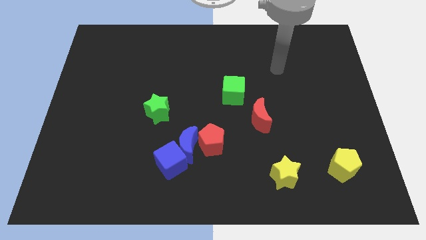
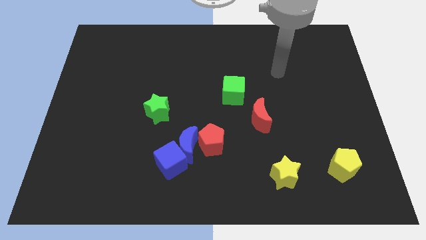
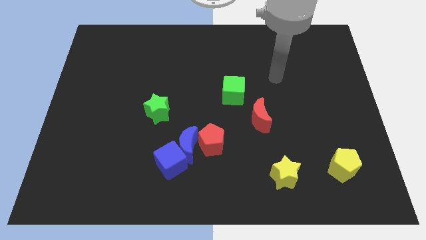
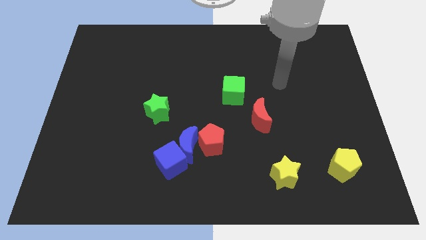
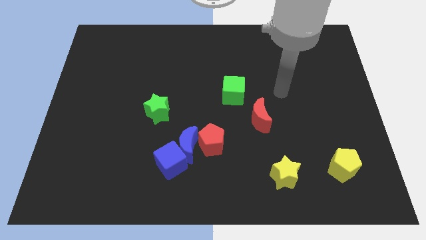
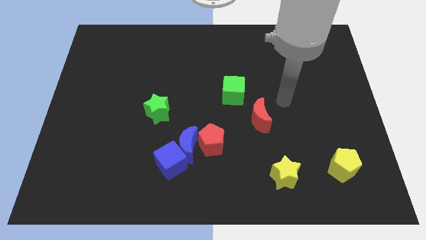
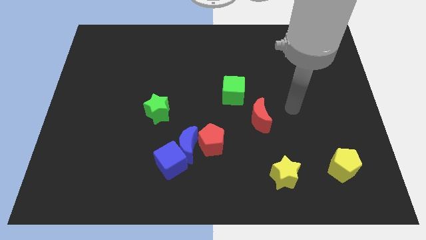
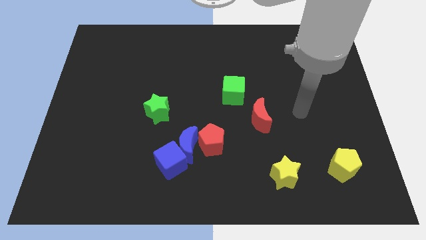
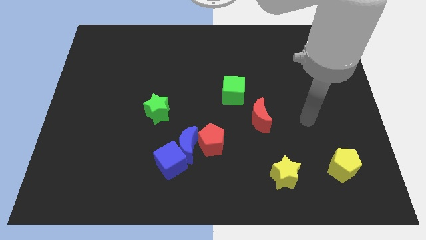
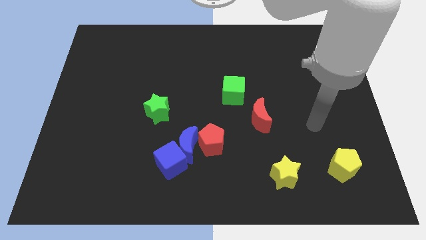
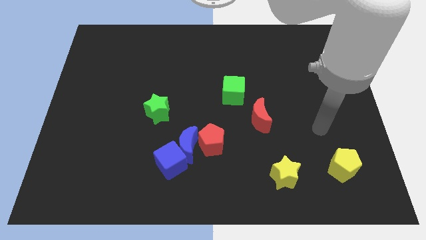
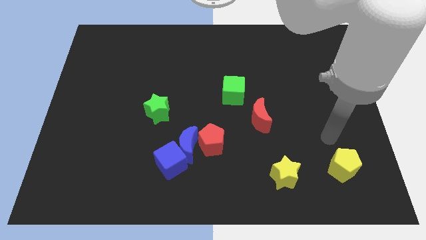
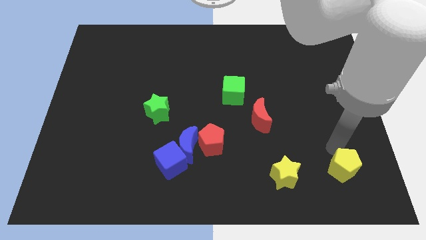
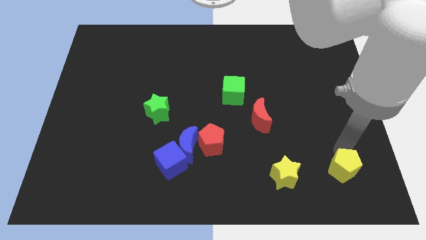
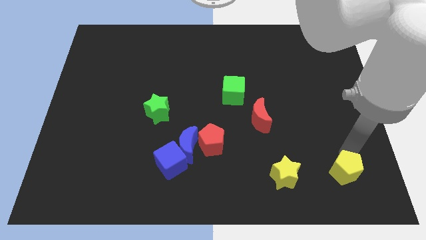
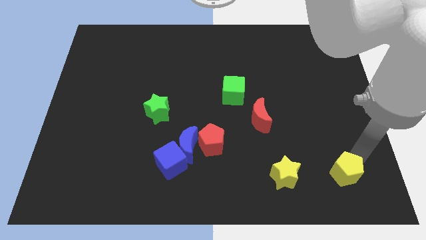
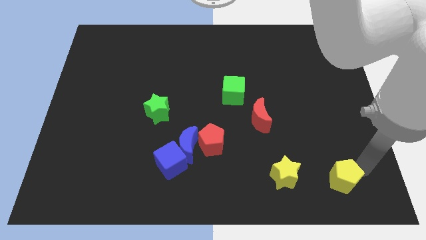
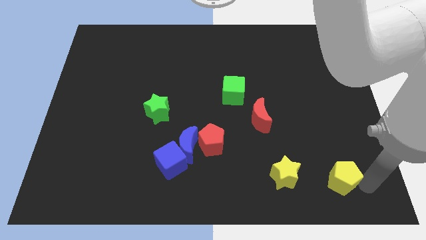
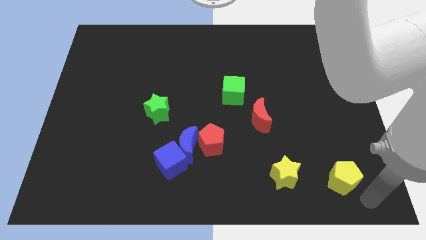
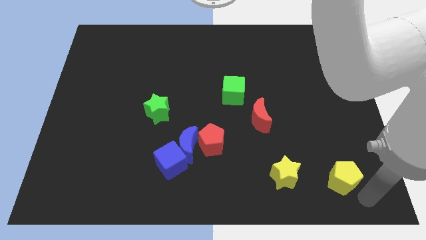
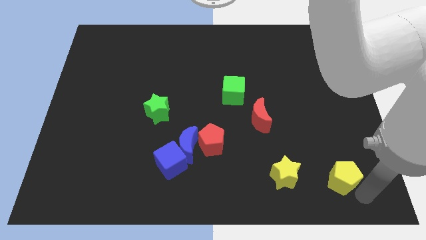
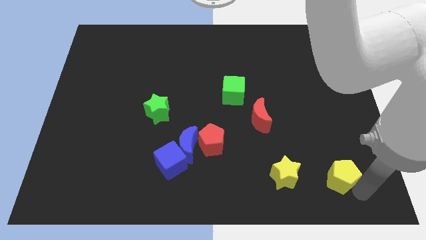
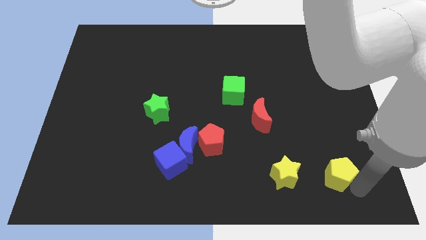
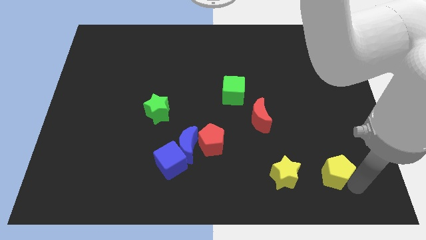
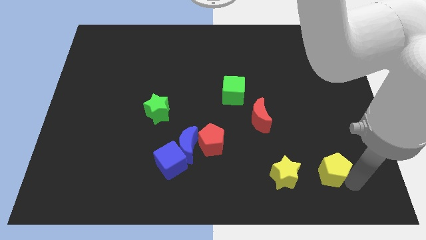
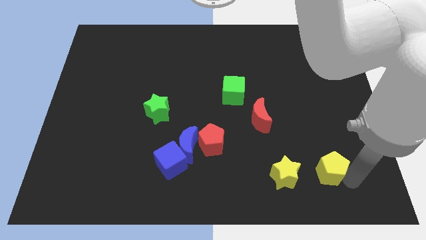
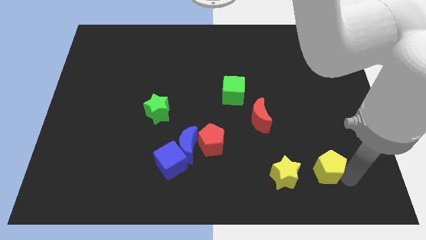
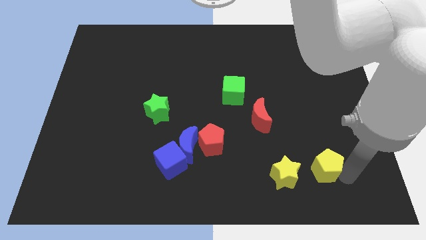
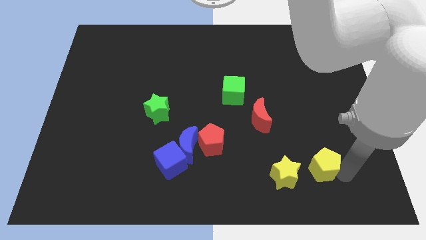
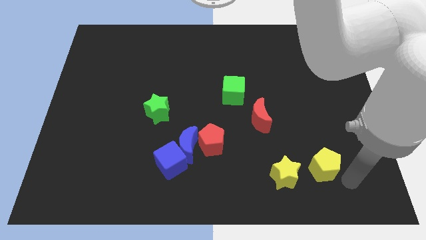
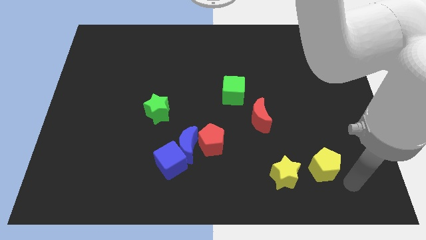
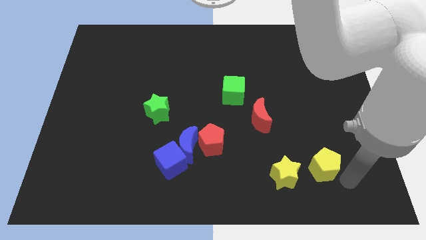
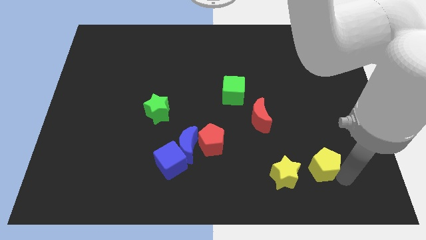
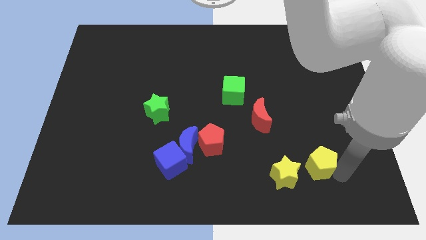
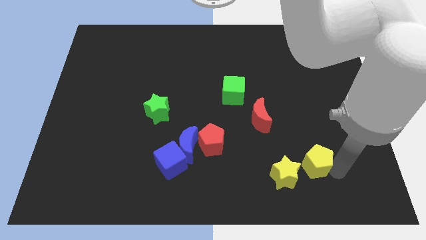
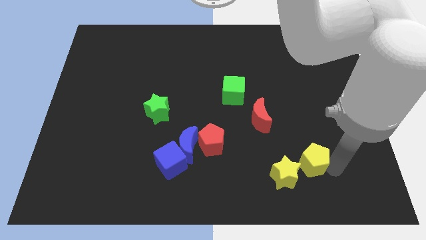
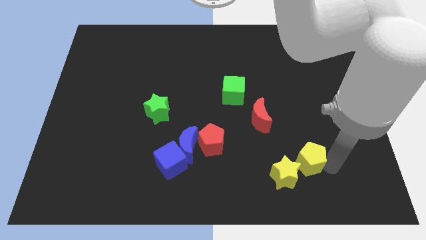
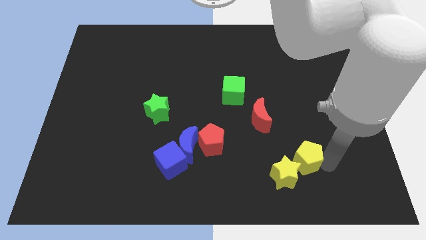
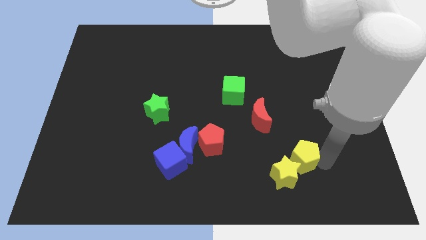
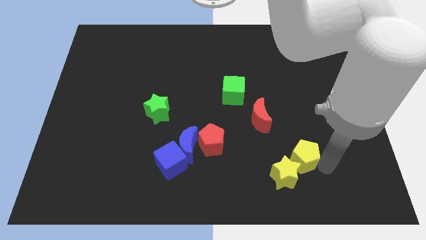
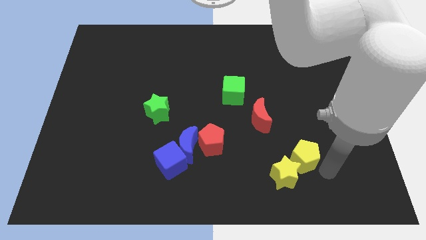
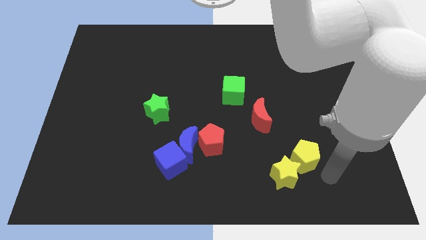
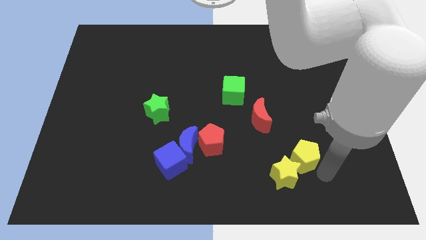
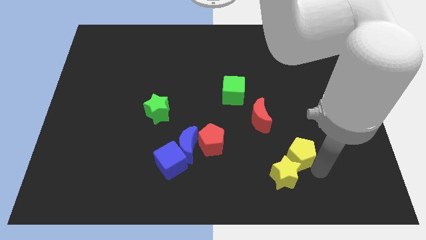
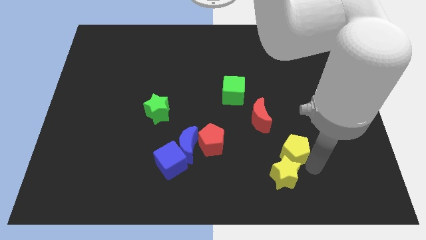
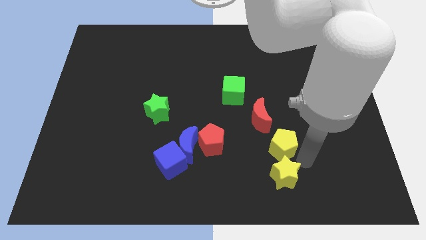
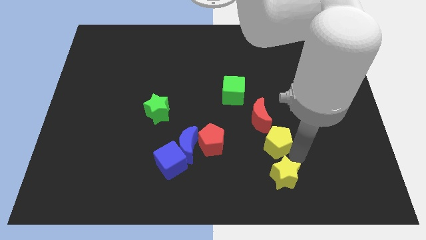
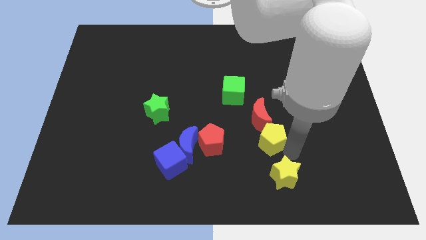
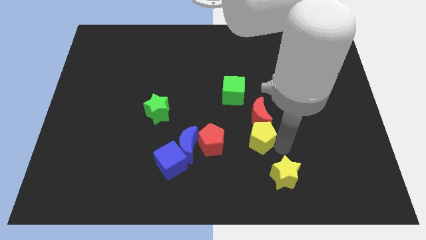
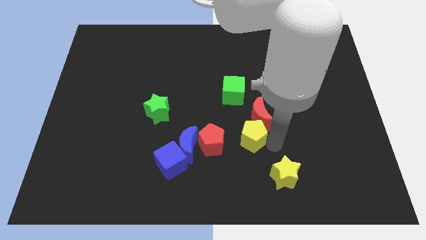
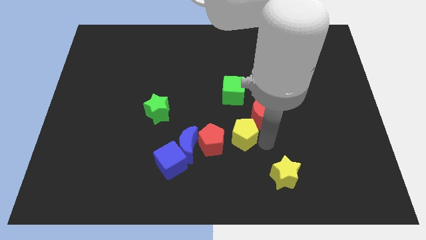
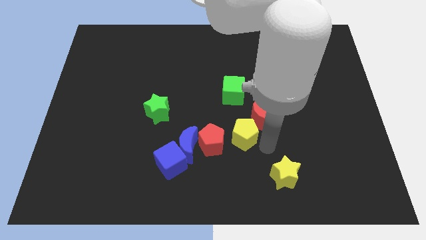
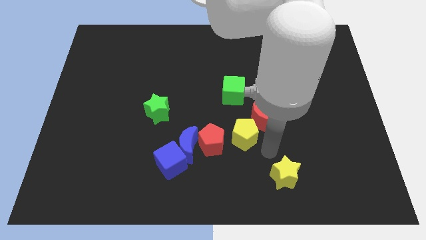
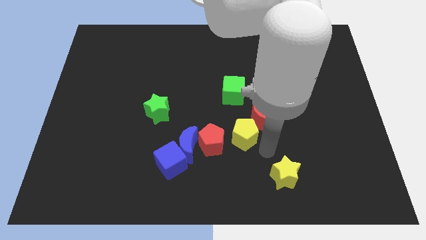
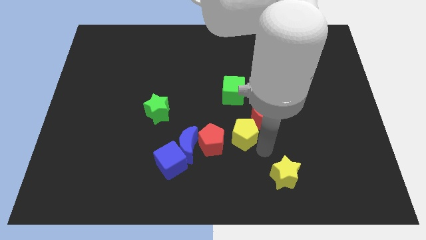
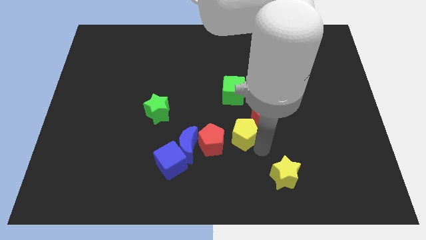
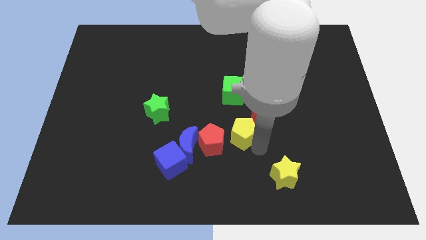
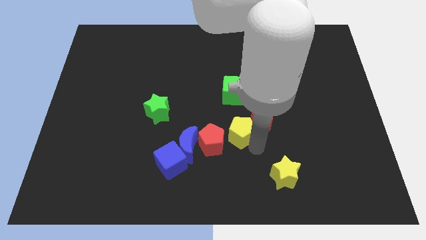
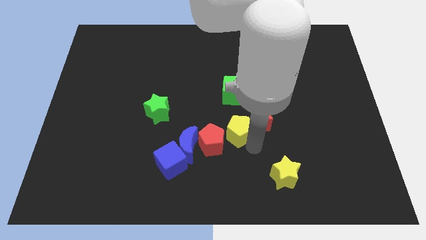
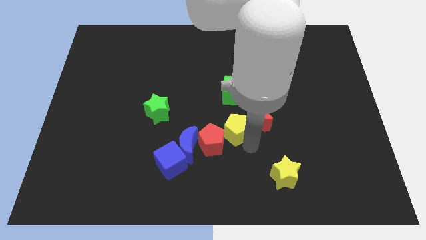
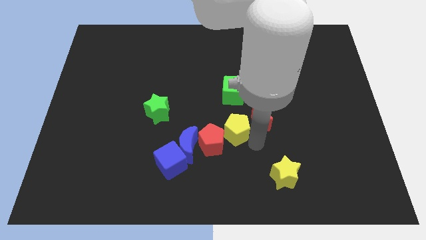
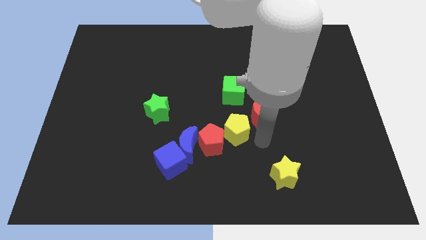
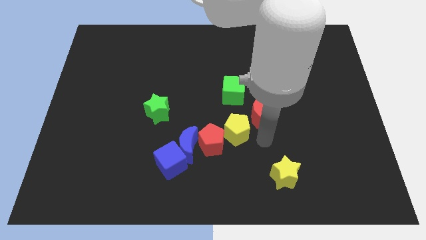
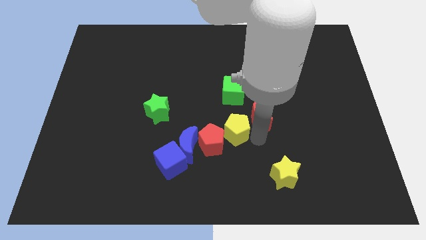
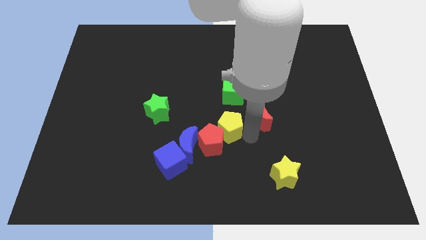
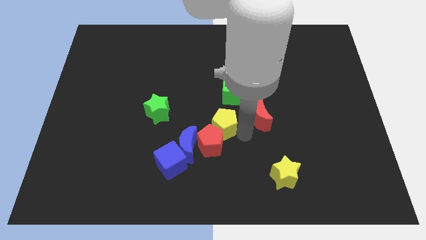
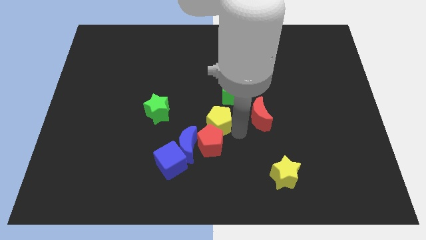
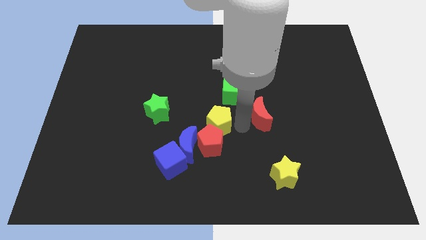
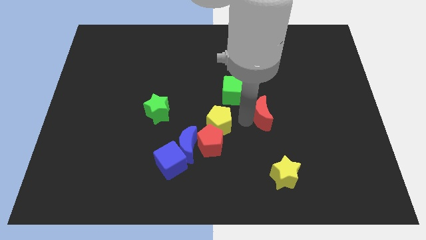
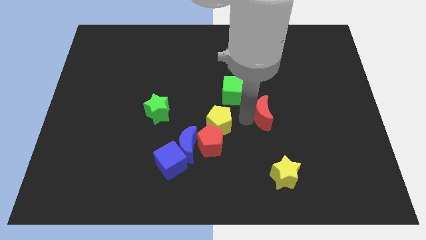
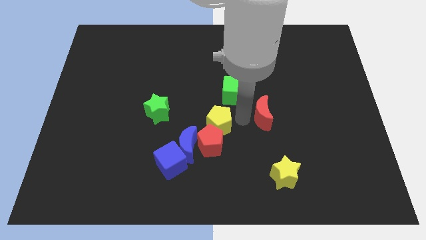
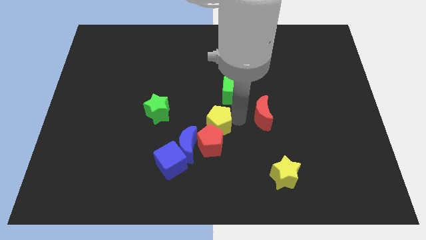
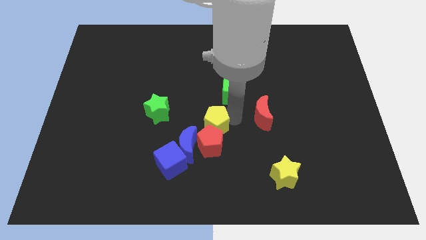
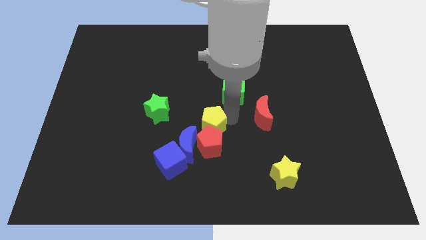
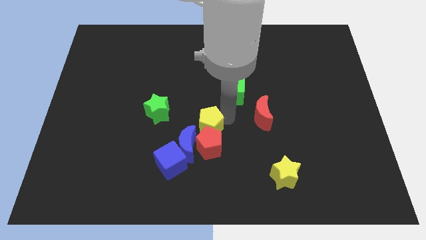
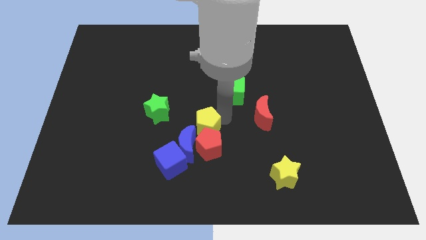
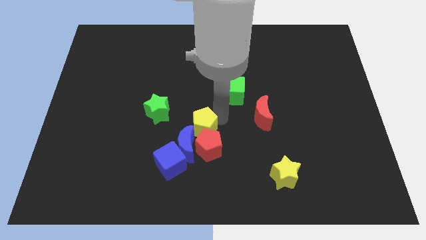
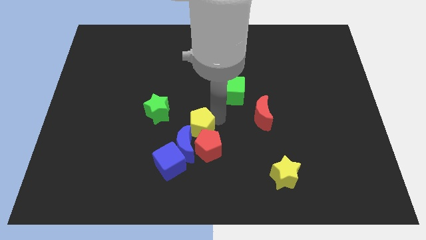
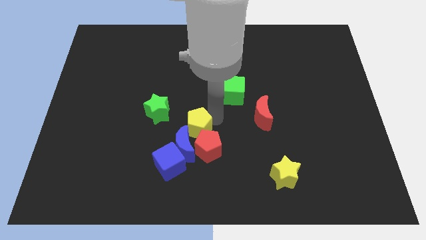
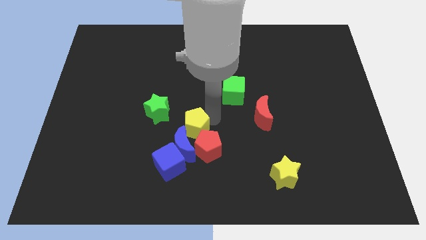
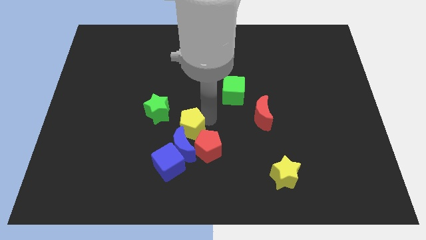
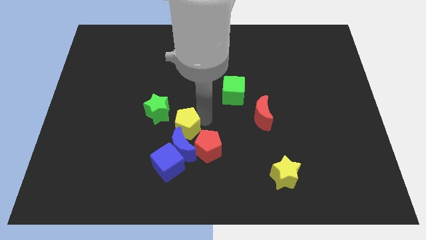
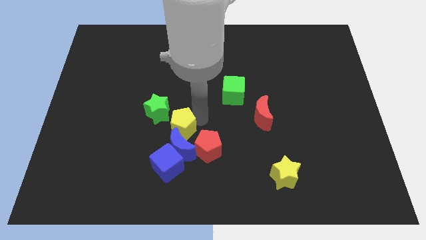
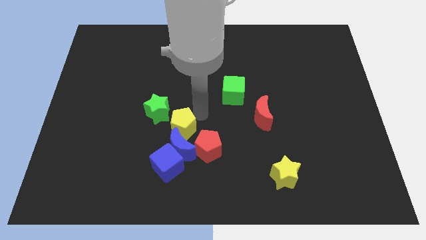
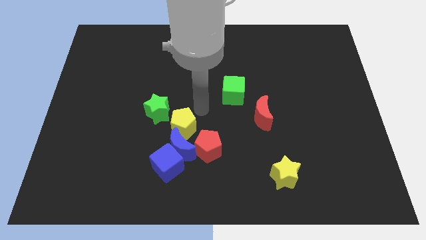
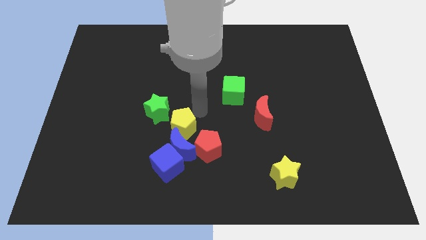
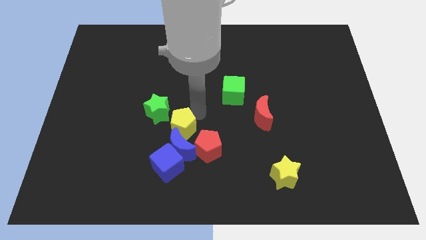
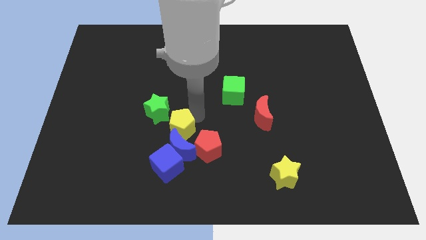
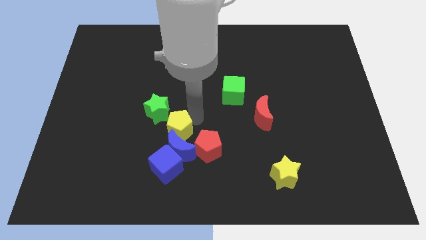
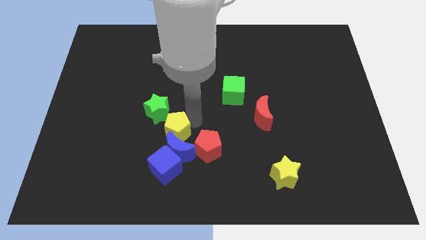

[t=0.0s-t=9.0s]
push the yellow pentagon left of the red pentagon
